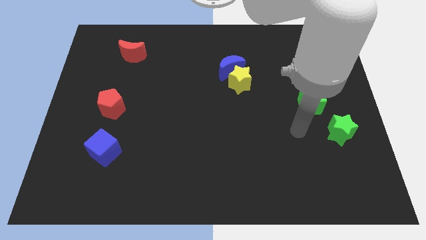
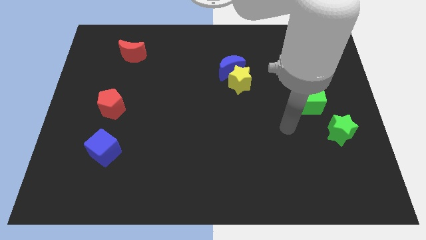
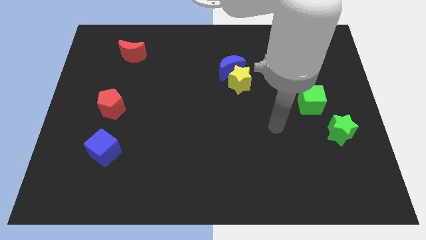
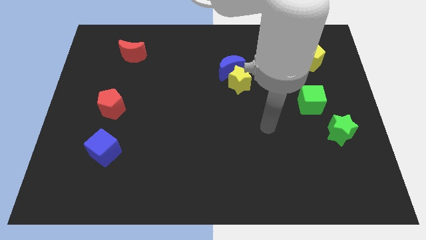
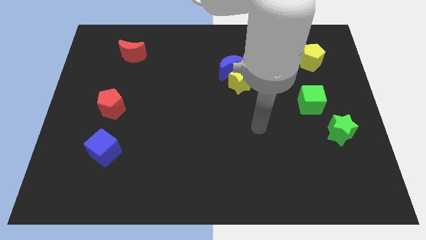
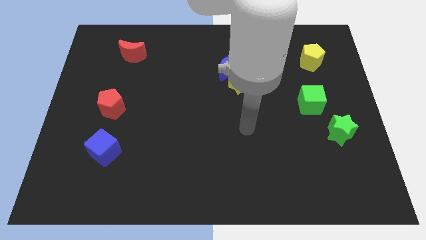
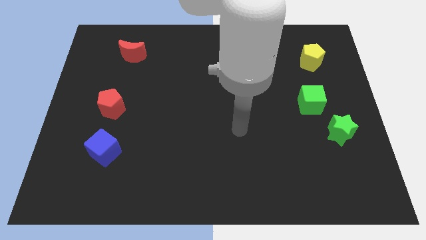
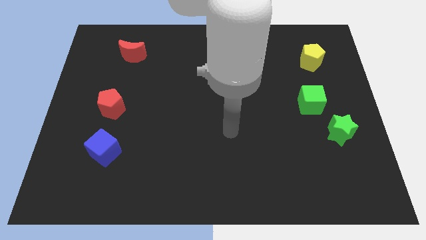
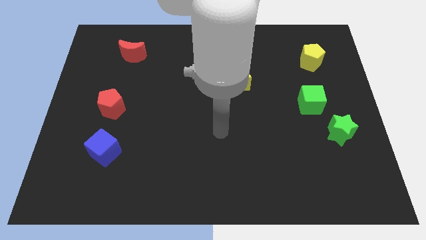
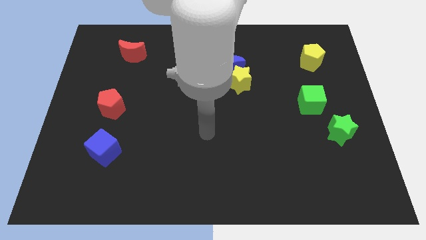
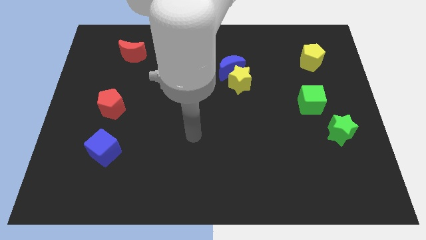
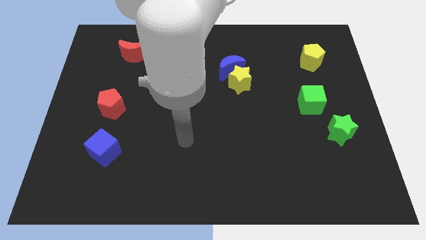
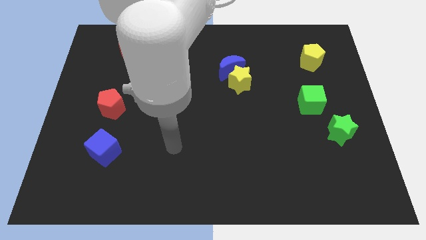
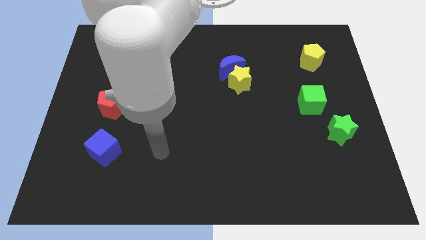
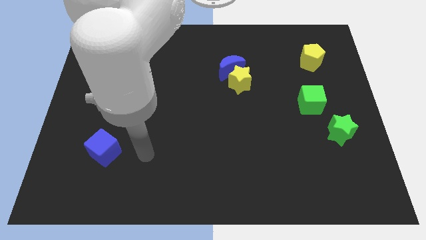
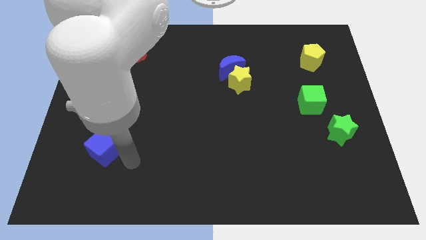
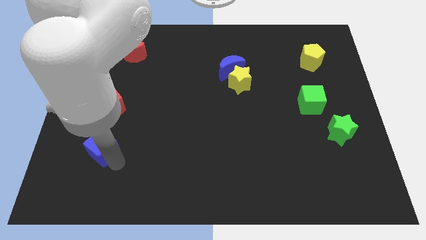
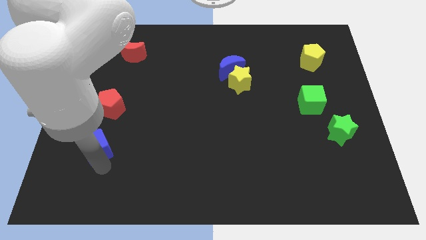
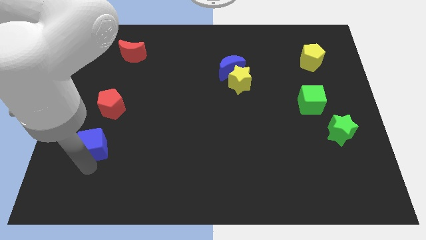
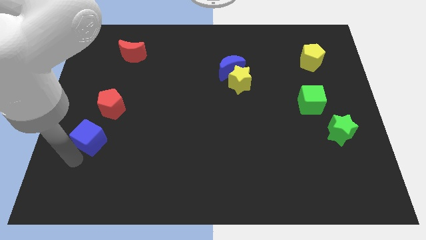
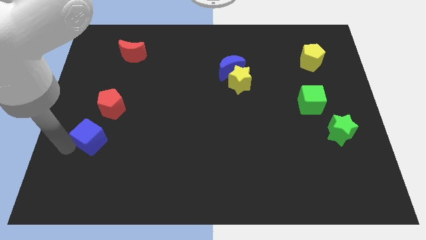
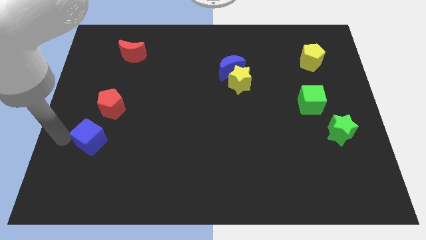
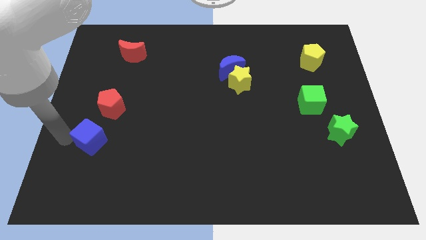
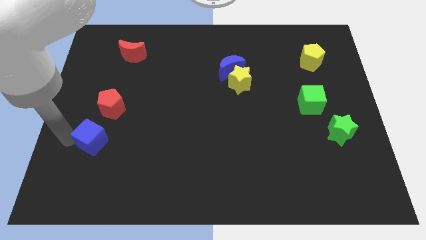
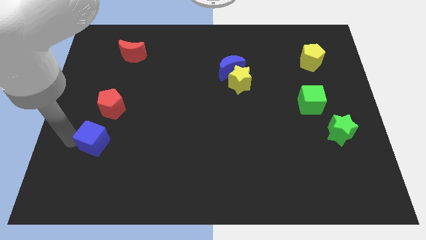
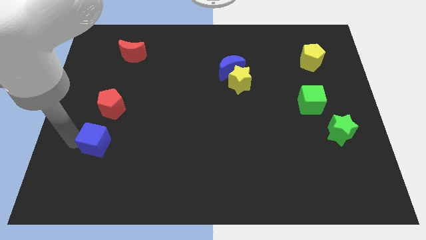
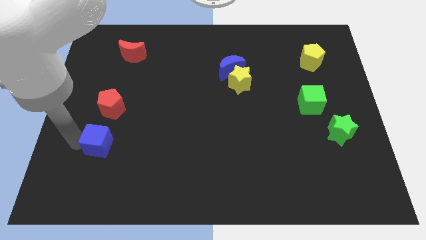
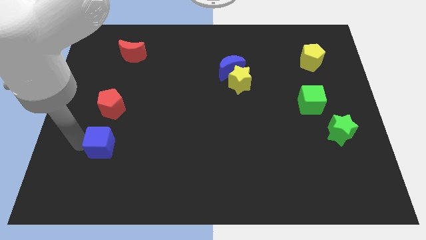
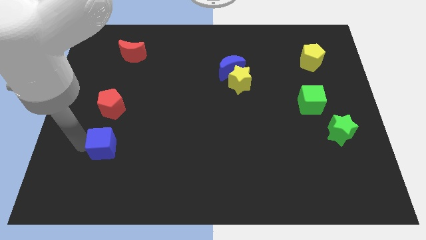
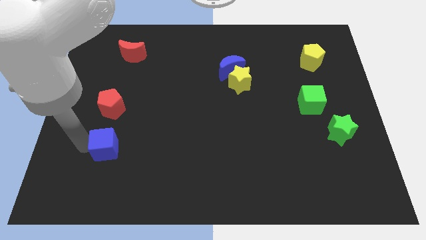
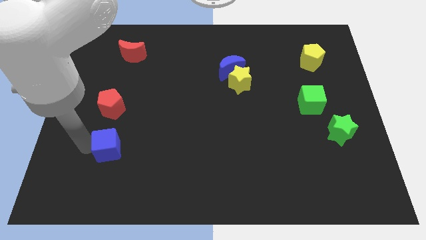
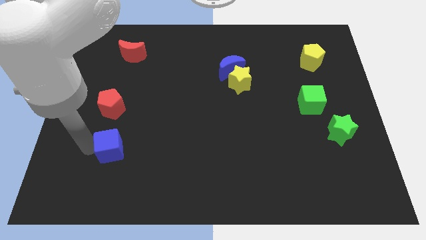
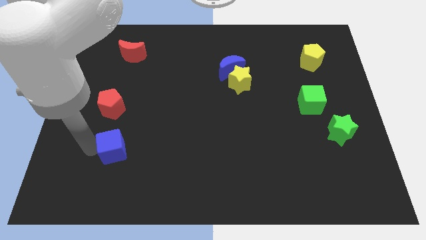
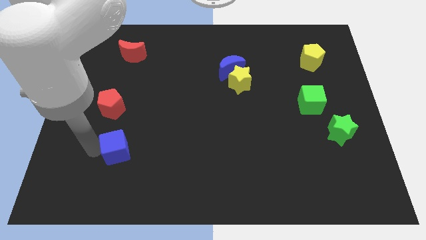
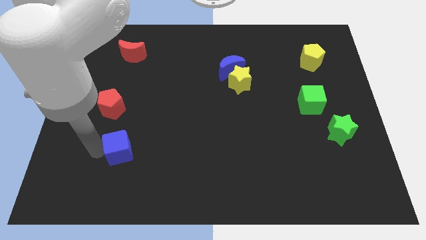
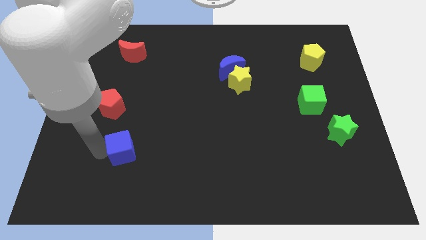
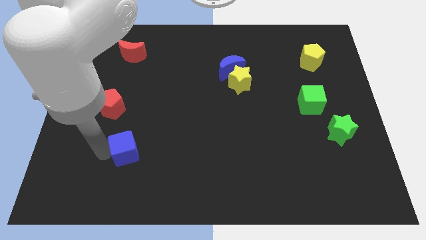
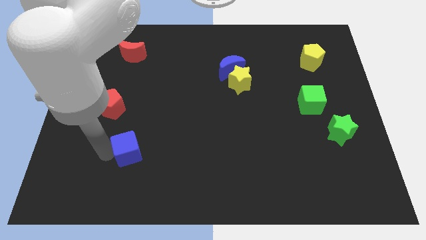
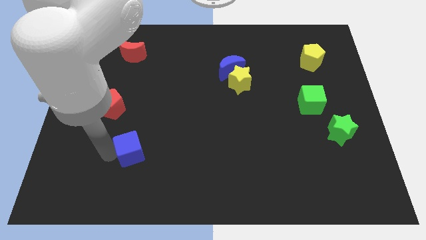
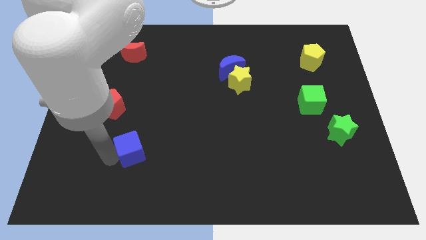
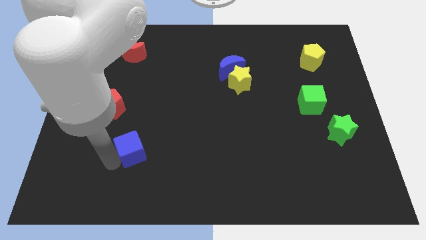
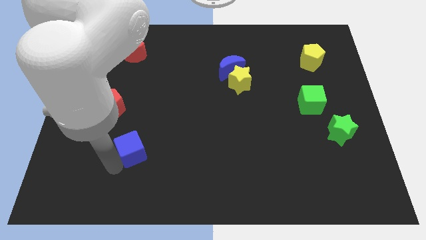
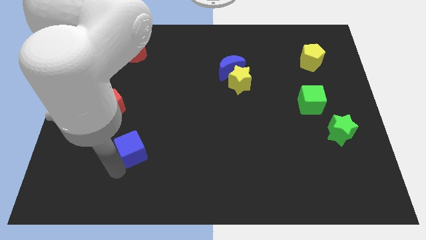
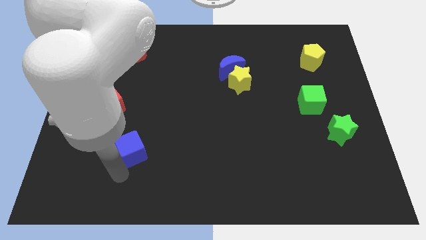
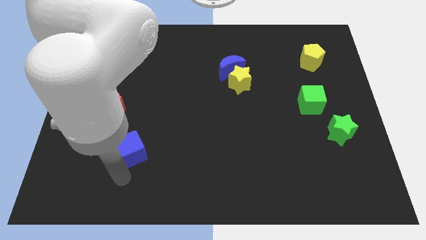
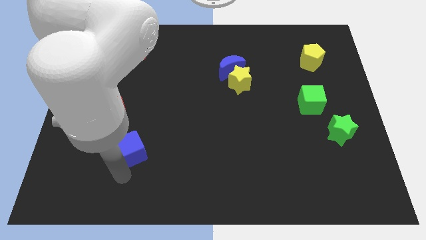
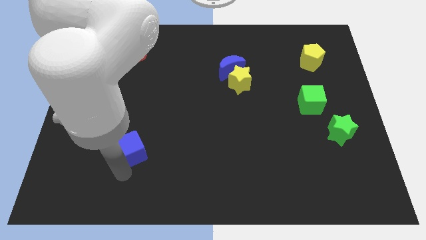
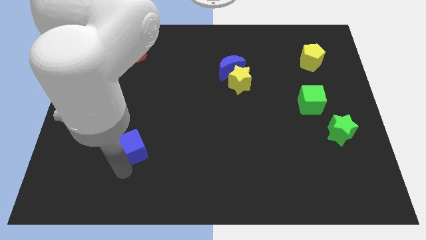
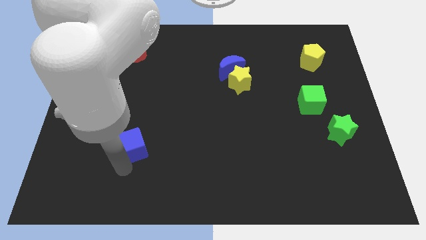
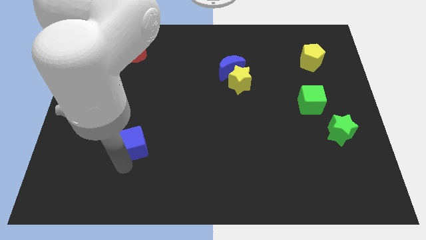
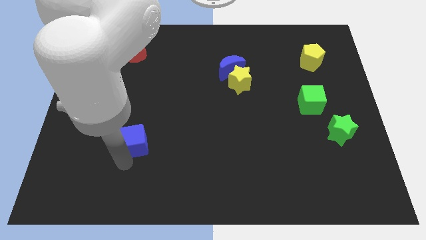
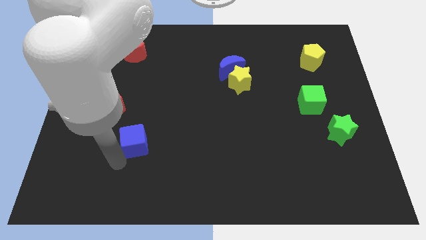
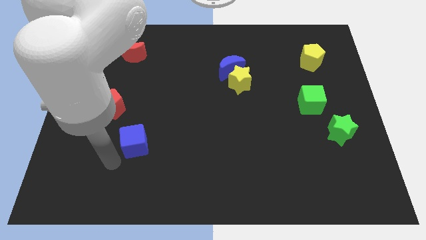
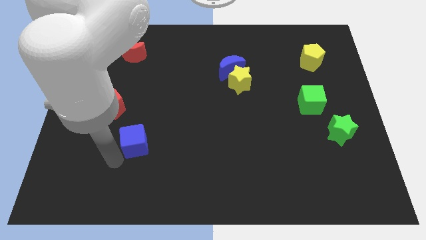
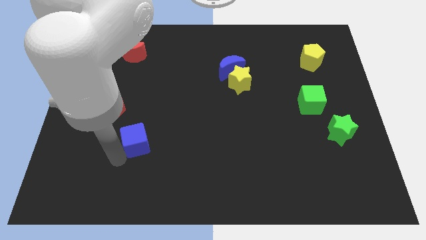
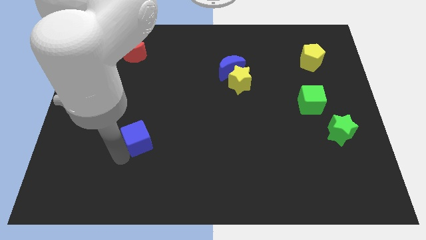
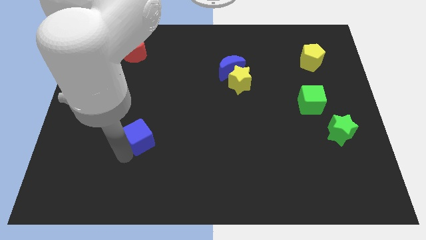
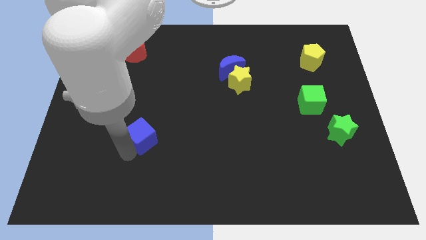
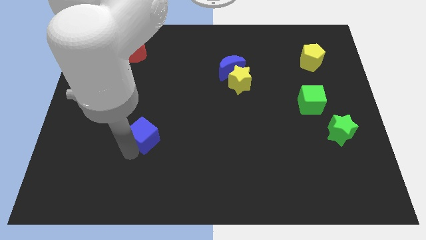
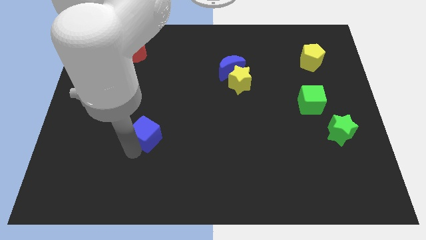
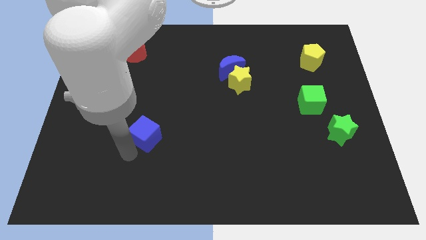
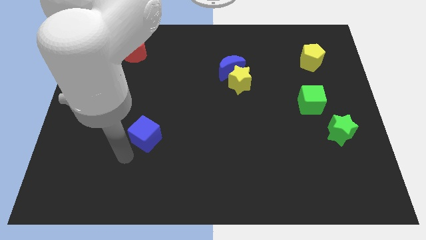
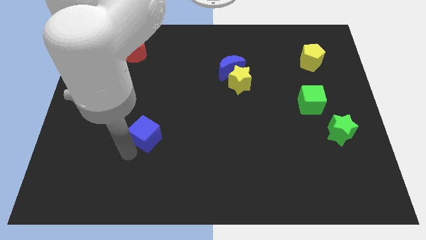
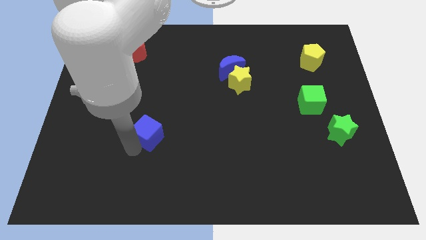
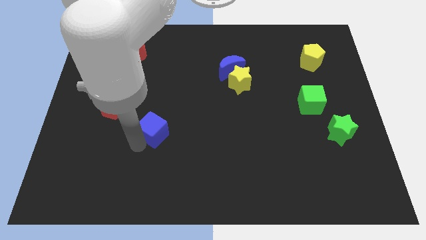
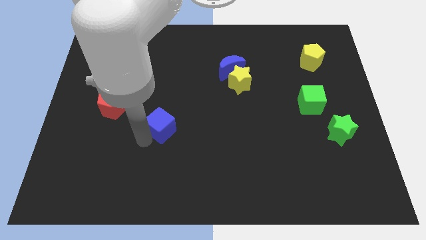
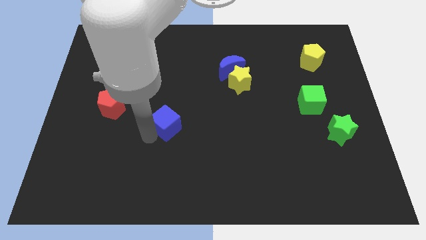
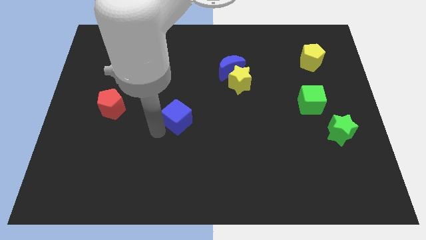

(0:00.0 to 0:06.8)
slide the blue cube to the middle of the board
